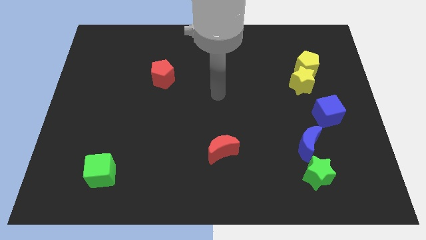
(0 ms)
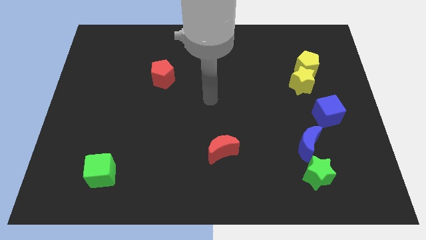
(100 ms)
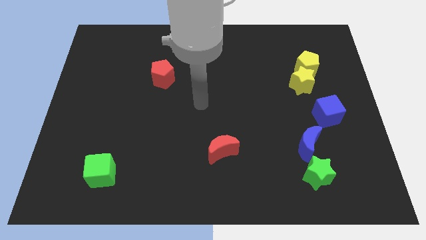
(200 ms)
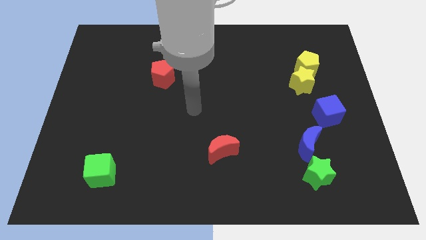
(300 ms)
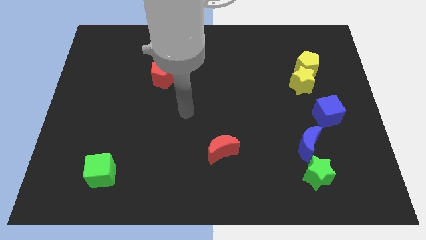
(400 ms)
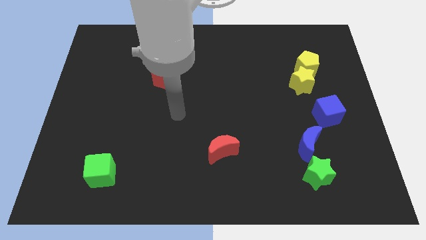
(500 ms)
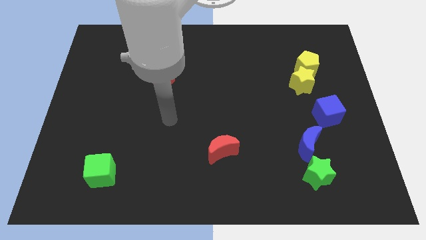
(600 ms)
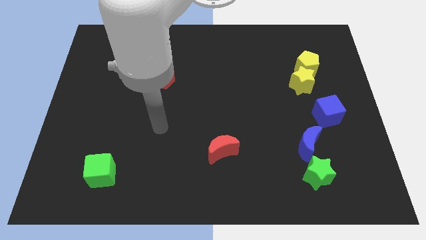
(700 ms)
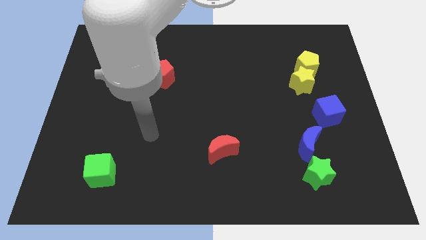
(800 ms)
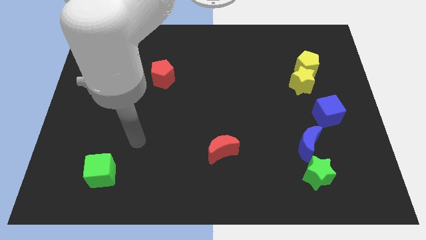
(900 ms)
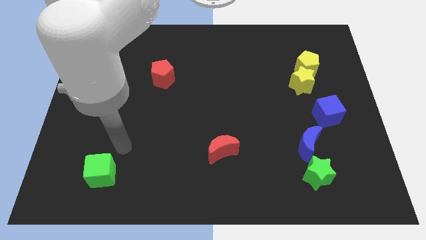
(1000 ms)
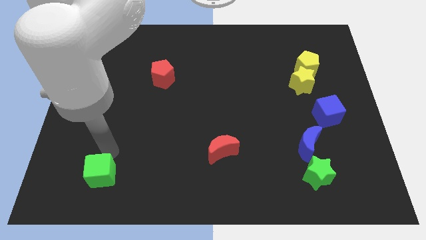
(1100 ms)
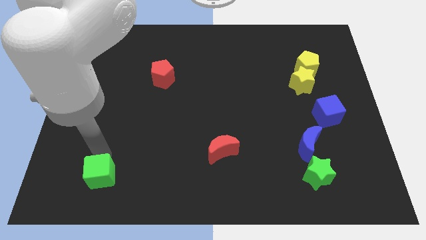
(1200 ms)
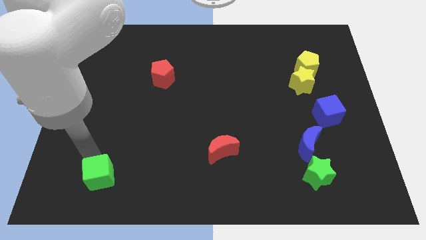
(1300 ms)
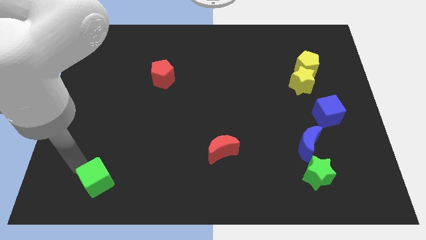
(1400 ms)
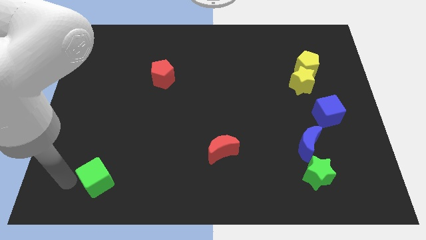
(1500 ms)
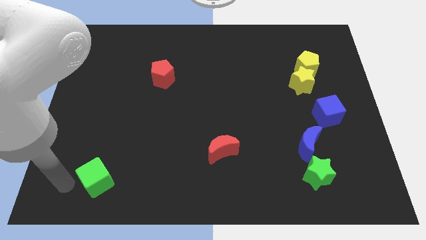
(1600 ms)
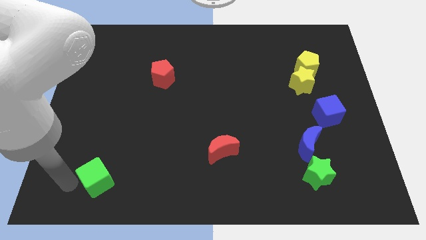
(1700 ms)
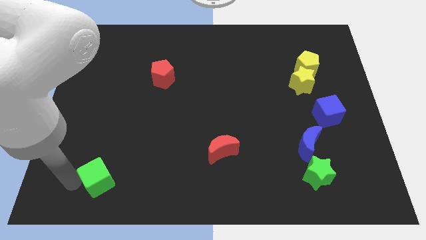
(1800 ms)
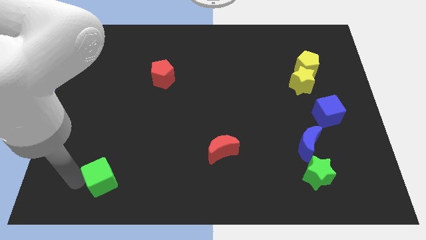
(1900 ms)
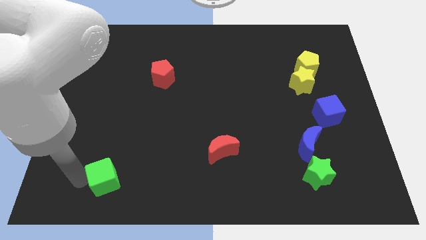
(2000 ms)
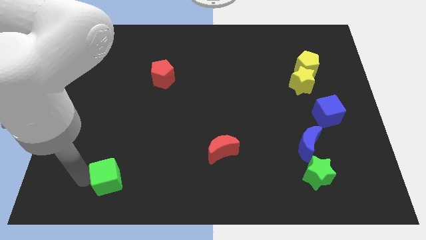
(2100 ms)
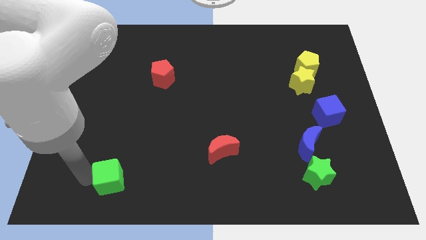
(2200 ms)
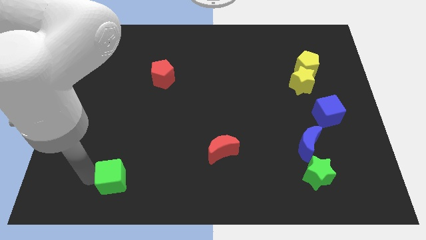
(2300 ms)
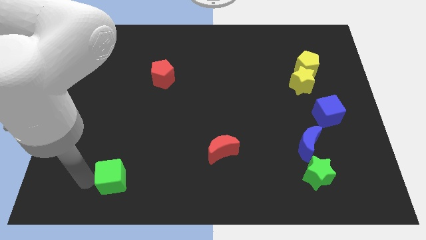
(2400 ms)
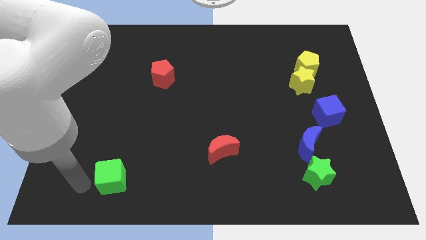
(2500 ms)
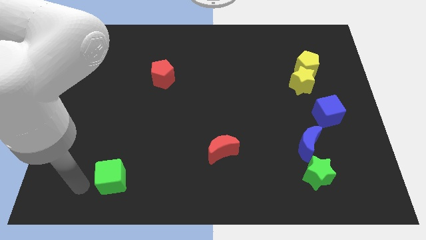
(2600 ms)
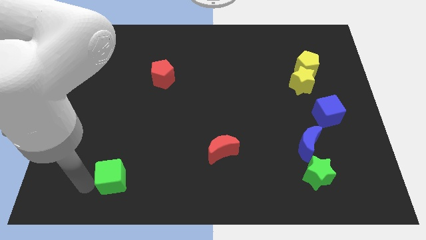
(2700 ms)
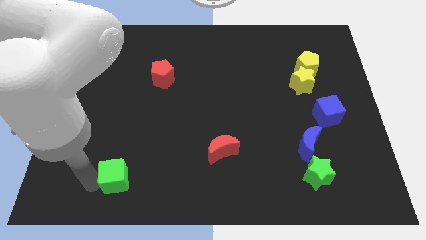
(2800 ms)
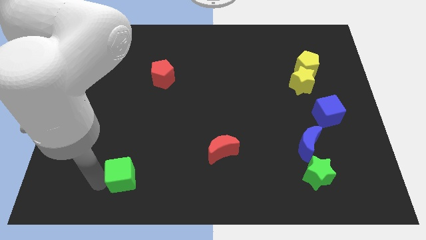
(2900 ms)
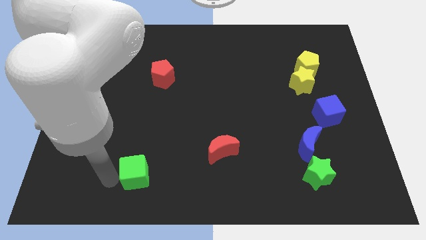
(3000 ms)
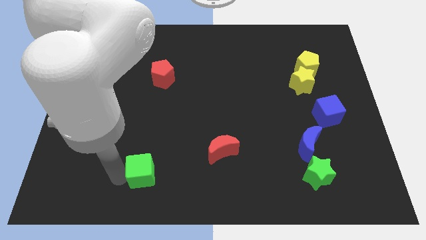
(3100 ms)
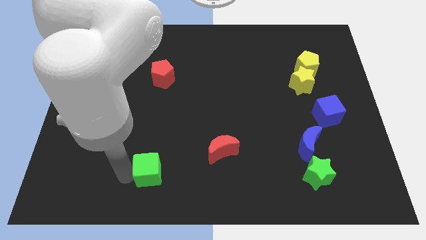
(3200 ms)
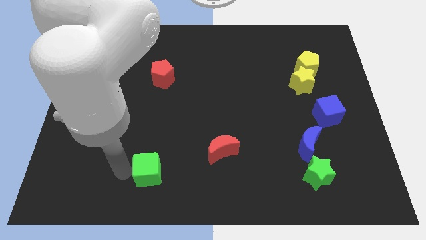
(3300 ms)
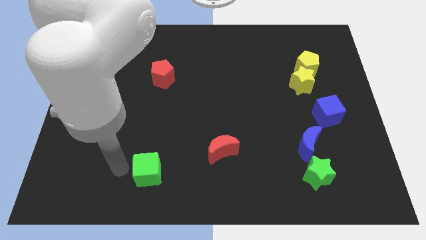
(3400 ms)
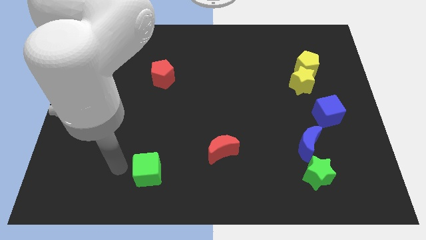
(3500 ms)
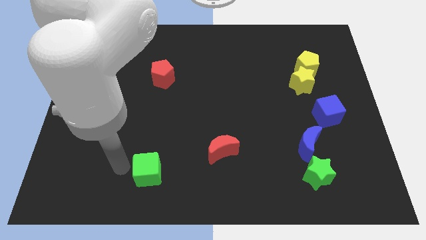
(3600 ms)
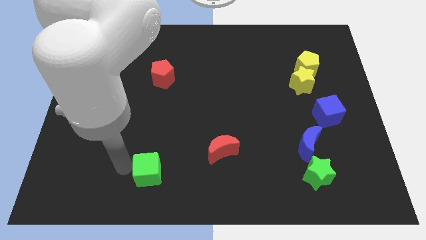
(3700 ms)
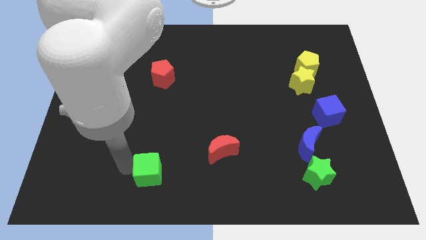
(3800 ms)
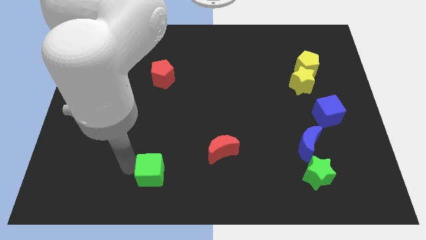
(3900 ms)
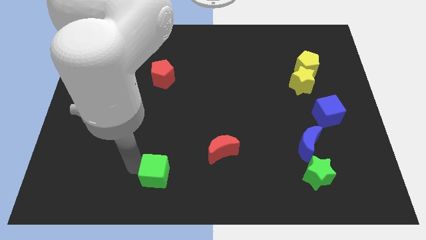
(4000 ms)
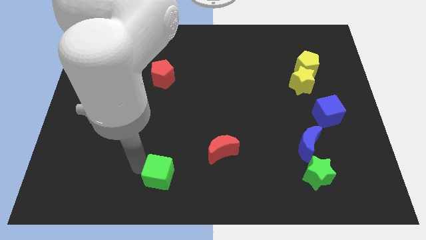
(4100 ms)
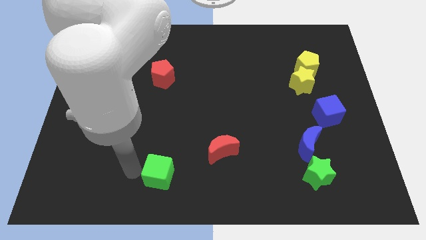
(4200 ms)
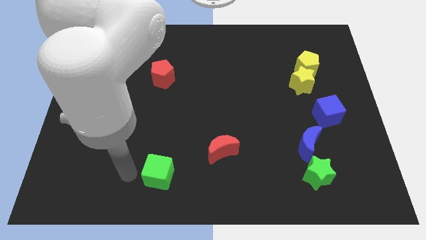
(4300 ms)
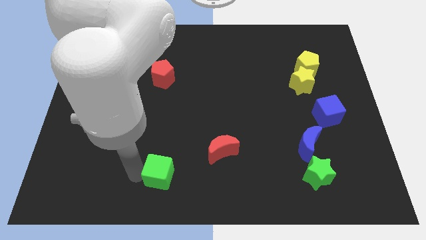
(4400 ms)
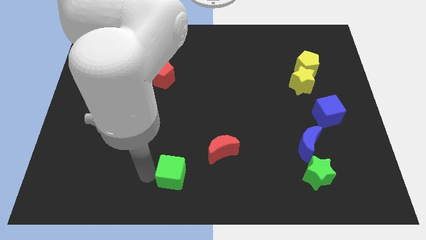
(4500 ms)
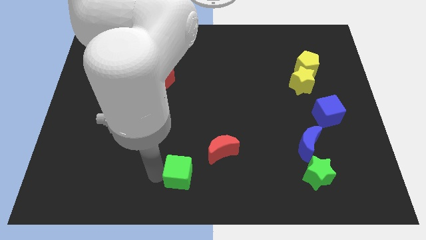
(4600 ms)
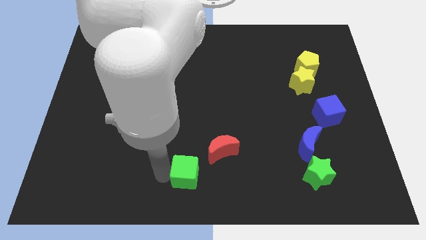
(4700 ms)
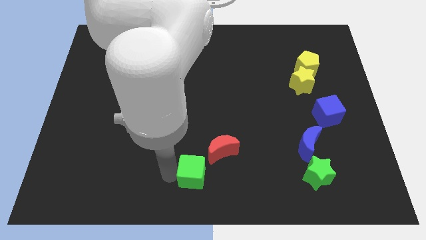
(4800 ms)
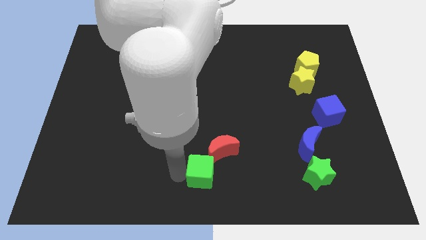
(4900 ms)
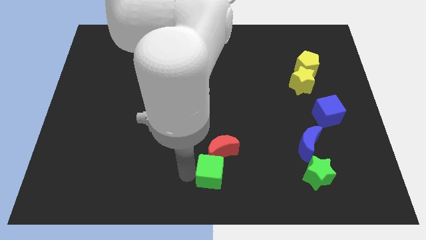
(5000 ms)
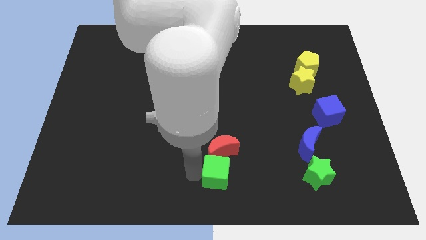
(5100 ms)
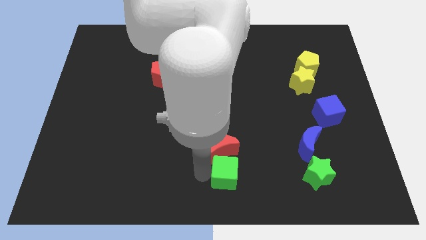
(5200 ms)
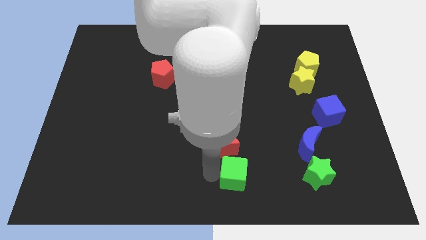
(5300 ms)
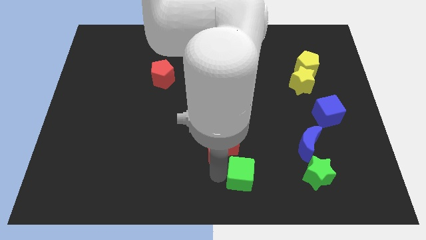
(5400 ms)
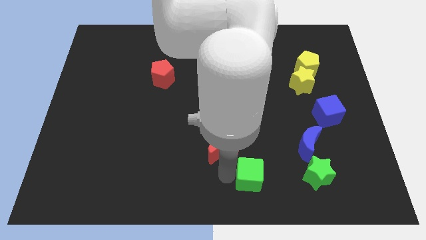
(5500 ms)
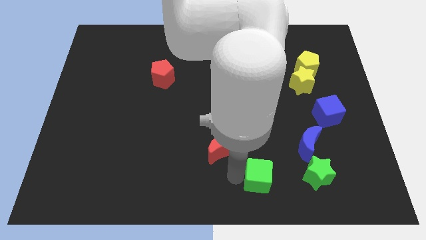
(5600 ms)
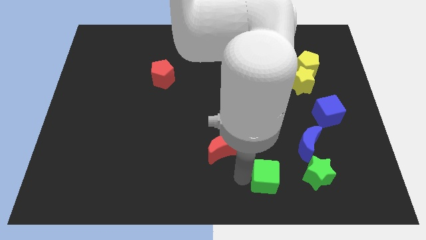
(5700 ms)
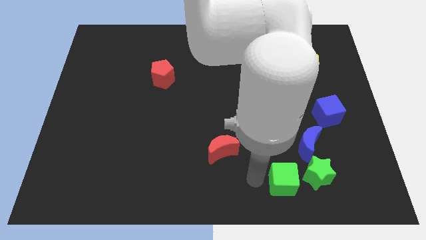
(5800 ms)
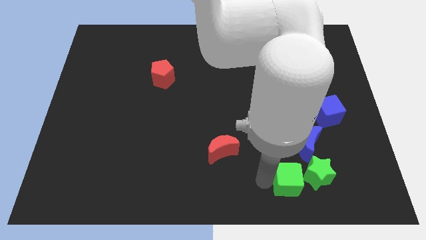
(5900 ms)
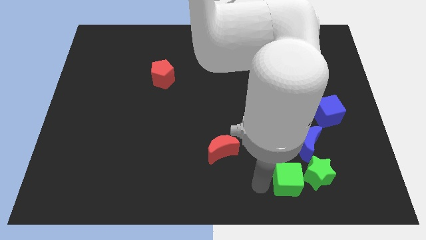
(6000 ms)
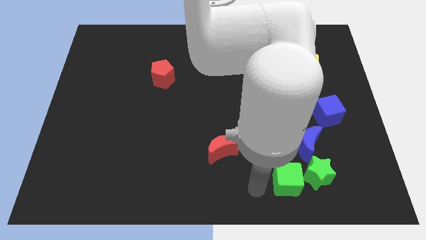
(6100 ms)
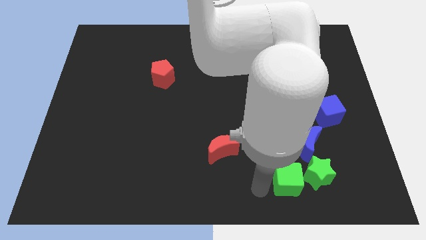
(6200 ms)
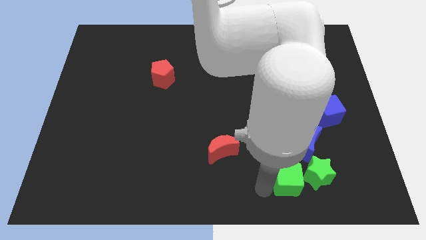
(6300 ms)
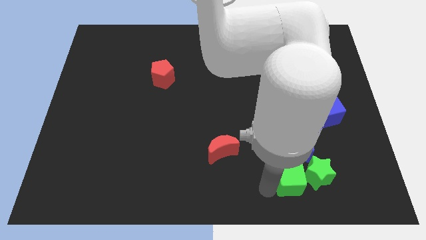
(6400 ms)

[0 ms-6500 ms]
push the green cube close to the green star
